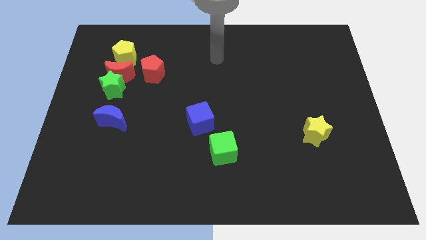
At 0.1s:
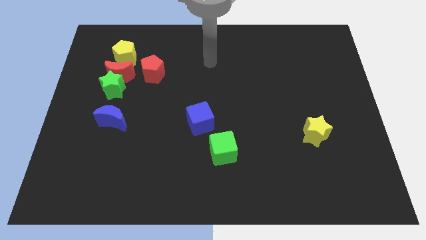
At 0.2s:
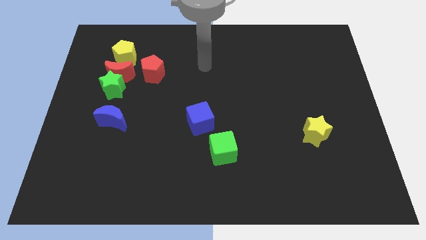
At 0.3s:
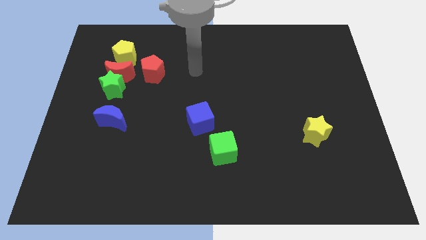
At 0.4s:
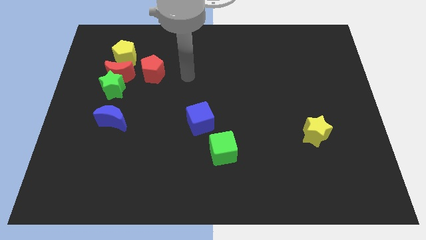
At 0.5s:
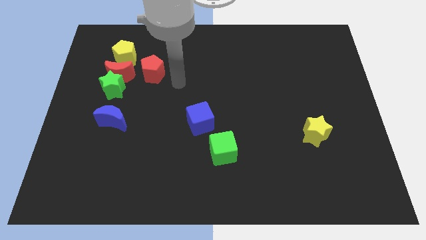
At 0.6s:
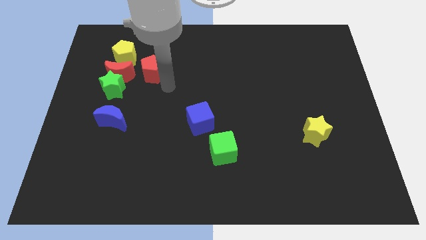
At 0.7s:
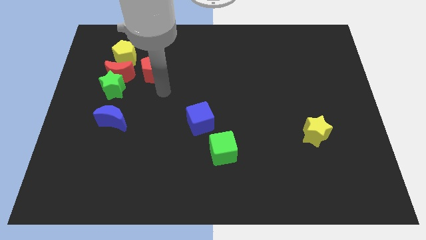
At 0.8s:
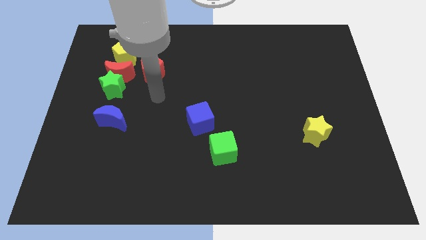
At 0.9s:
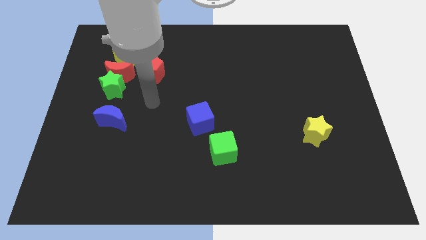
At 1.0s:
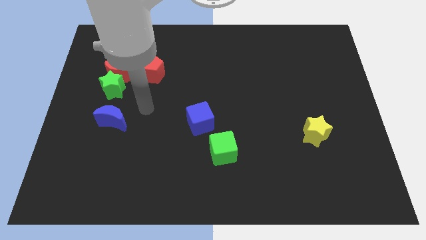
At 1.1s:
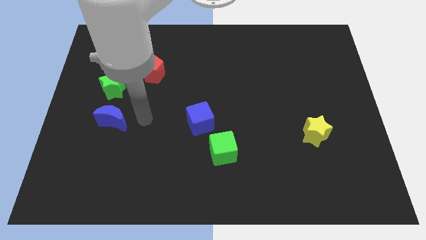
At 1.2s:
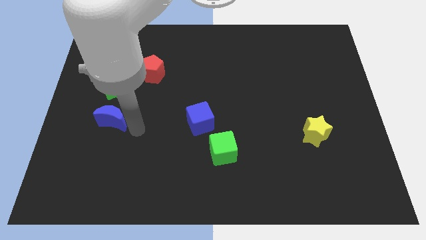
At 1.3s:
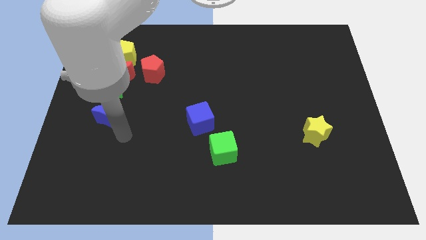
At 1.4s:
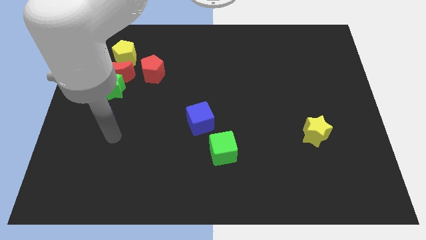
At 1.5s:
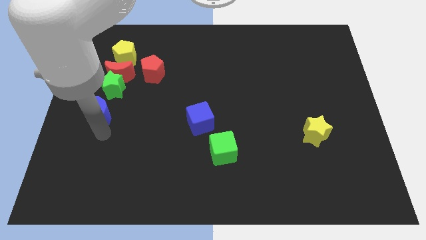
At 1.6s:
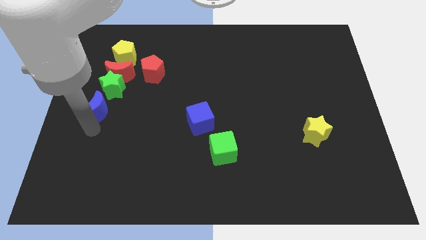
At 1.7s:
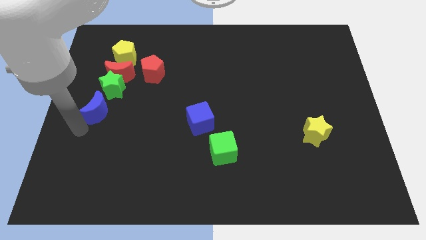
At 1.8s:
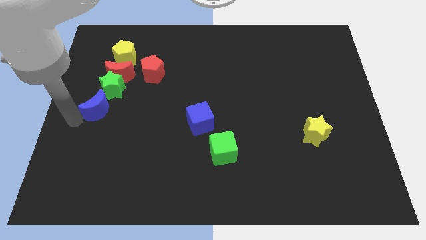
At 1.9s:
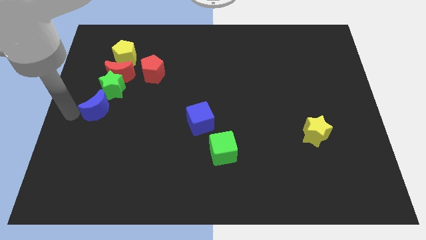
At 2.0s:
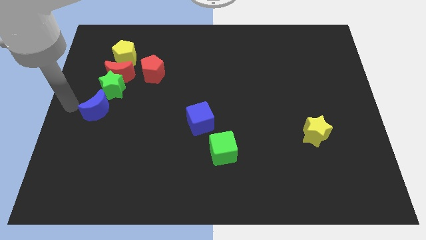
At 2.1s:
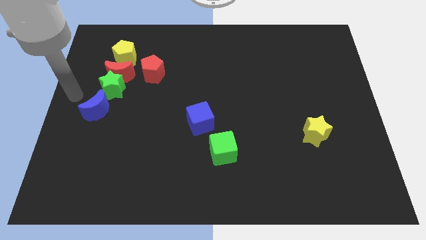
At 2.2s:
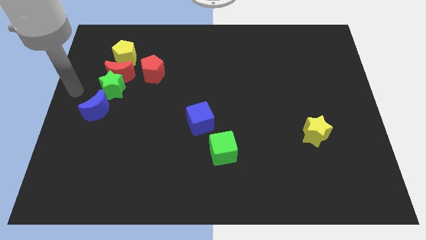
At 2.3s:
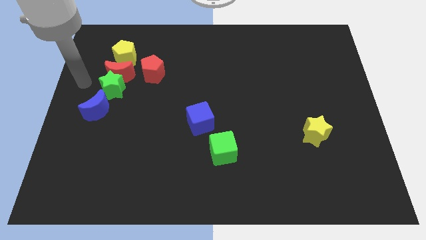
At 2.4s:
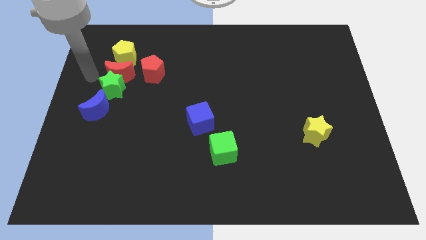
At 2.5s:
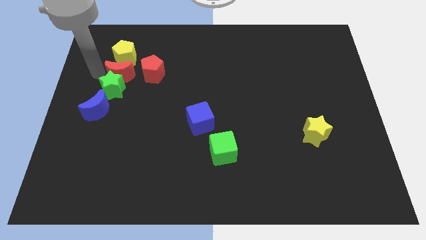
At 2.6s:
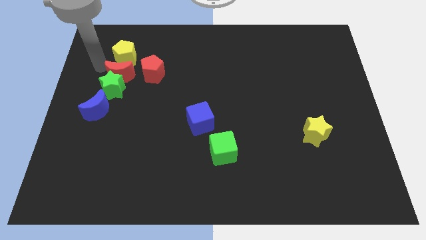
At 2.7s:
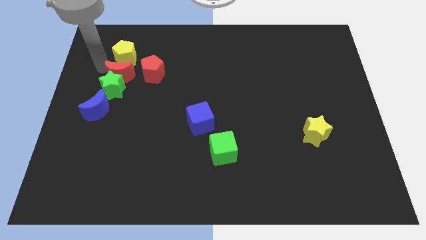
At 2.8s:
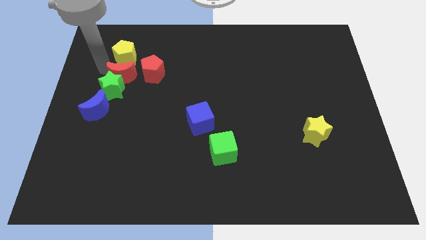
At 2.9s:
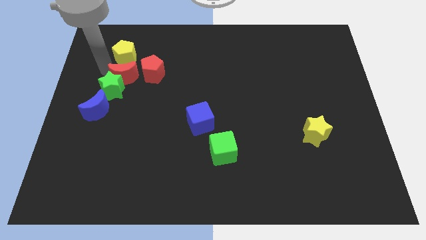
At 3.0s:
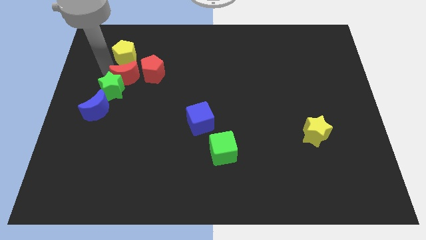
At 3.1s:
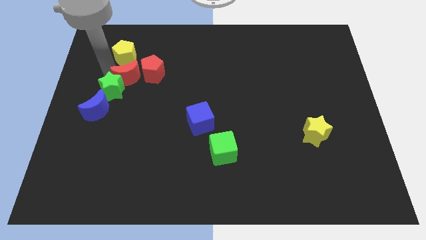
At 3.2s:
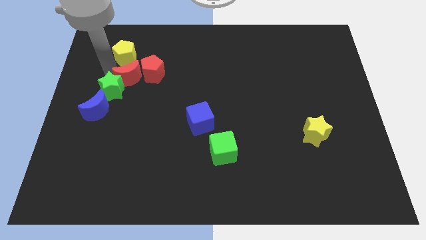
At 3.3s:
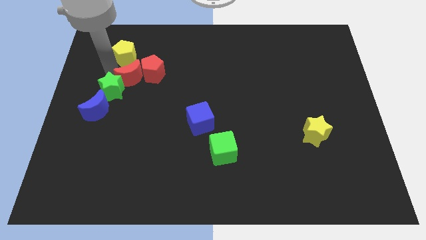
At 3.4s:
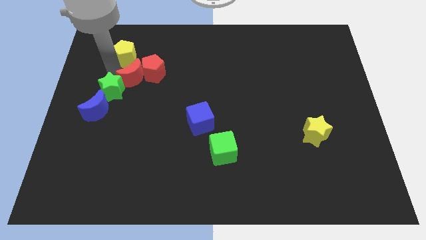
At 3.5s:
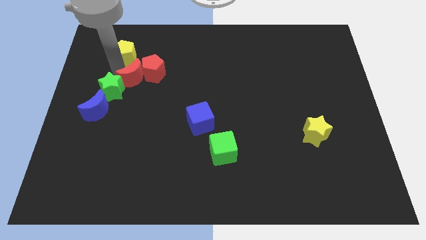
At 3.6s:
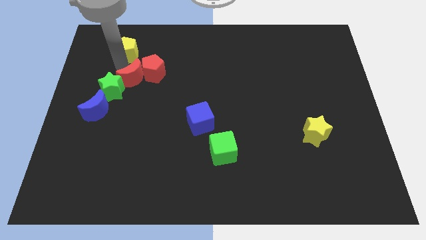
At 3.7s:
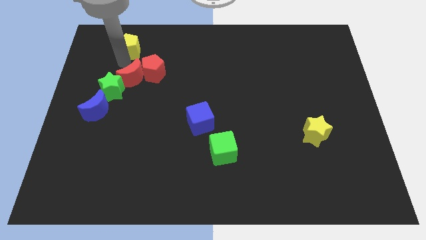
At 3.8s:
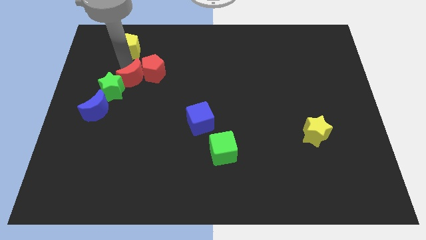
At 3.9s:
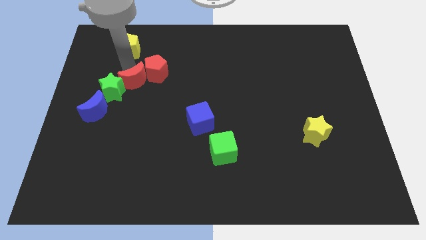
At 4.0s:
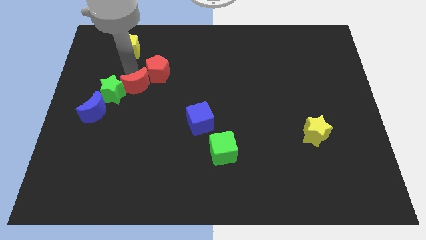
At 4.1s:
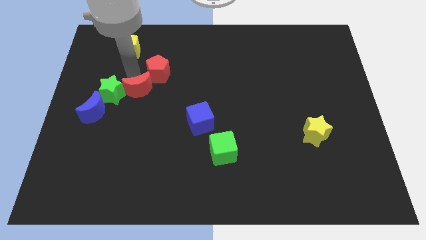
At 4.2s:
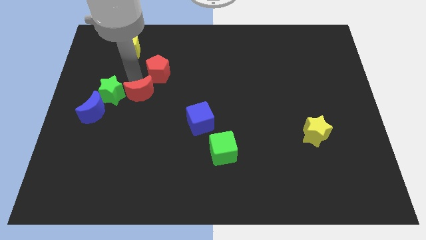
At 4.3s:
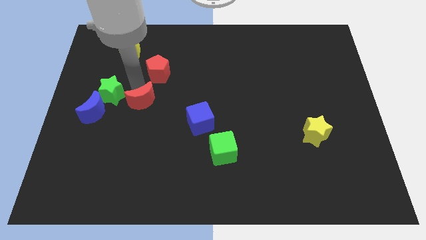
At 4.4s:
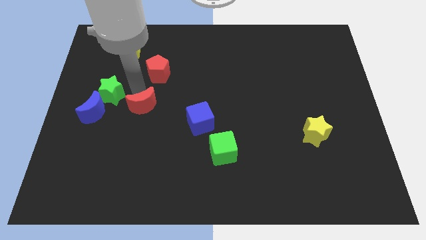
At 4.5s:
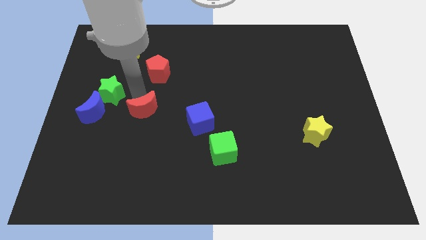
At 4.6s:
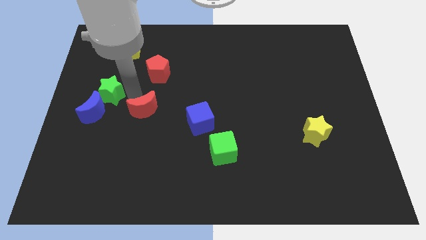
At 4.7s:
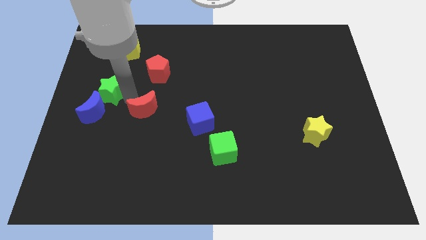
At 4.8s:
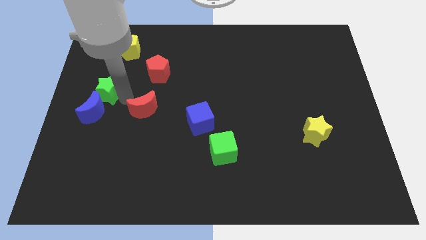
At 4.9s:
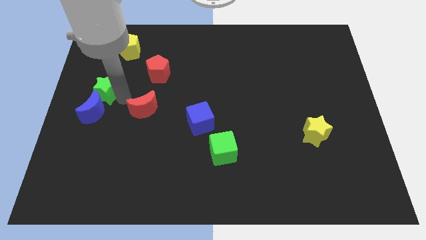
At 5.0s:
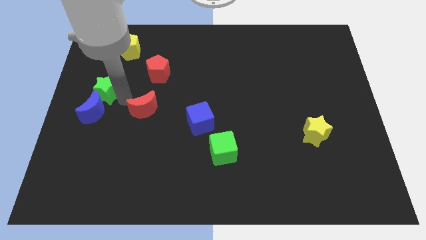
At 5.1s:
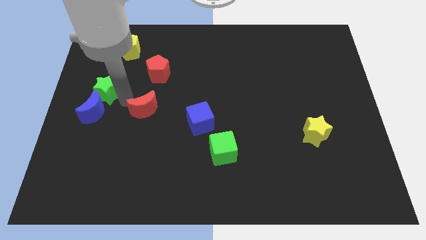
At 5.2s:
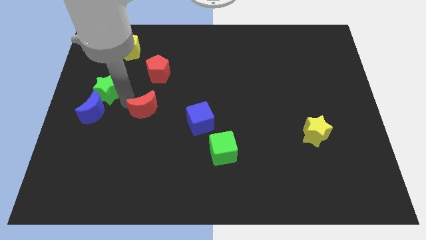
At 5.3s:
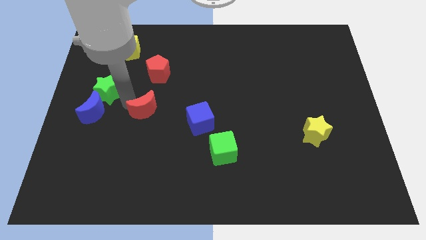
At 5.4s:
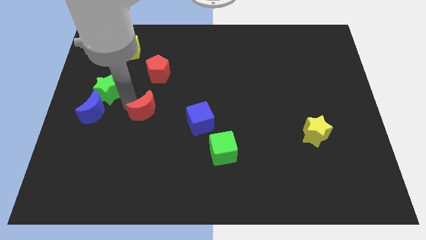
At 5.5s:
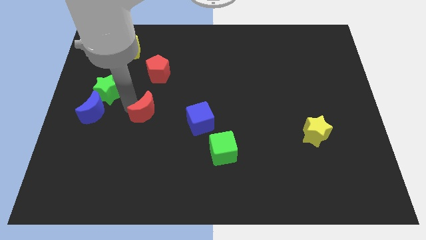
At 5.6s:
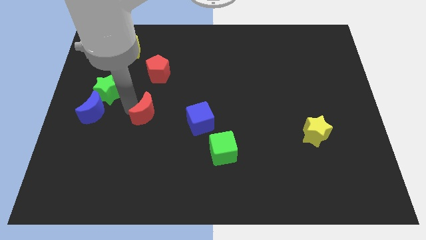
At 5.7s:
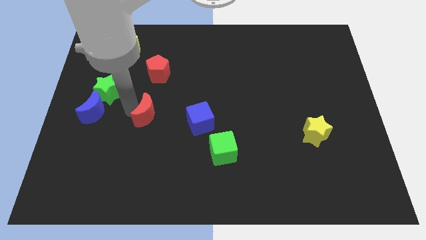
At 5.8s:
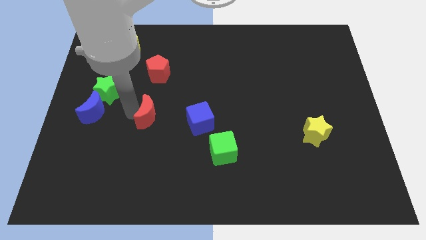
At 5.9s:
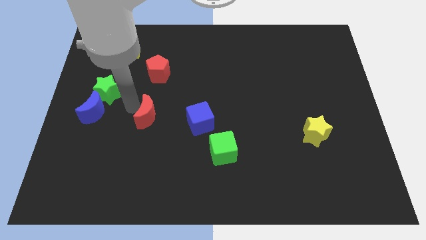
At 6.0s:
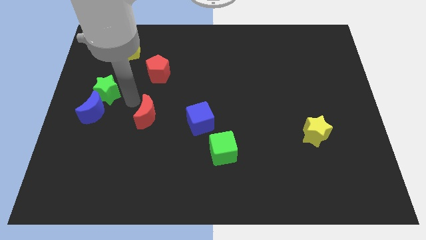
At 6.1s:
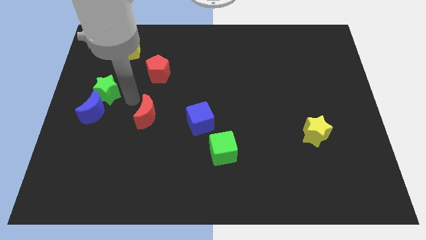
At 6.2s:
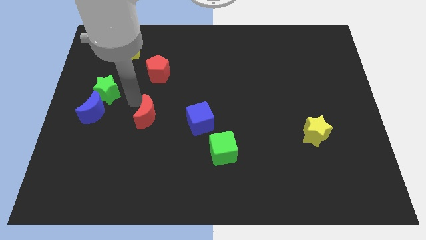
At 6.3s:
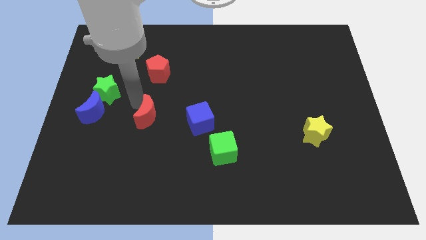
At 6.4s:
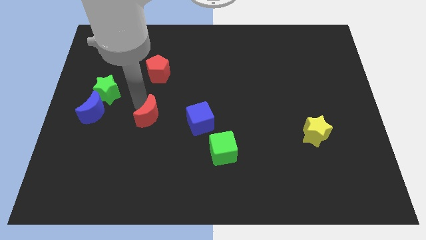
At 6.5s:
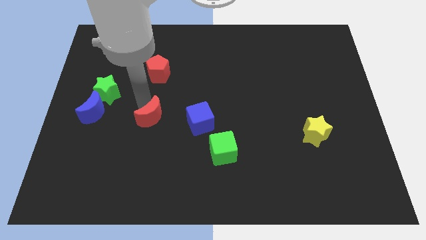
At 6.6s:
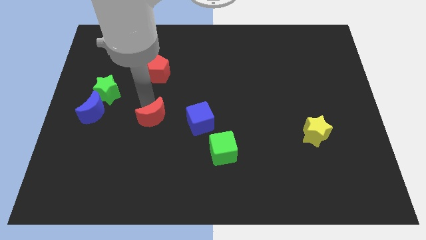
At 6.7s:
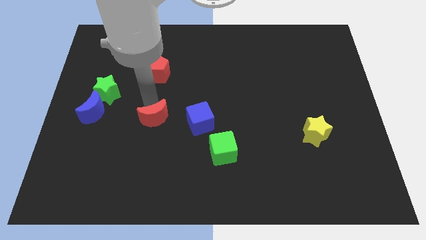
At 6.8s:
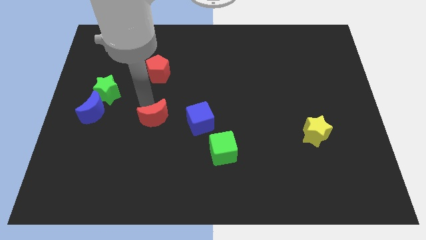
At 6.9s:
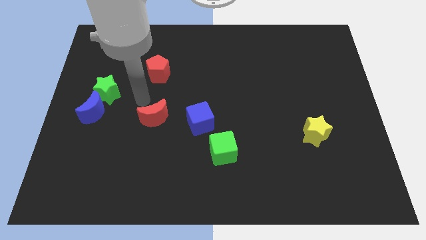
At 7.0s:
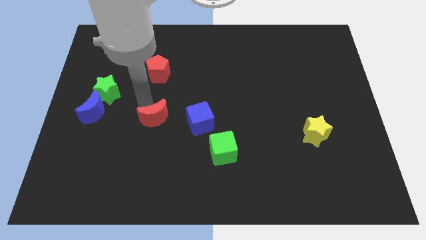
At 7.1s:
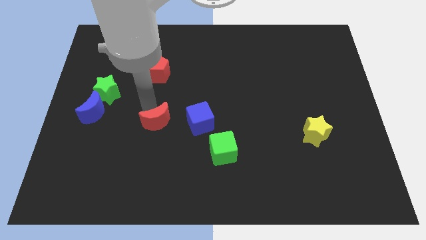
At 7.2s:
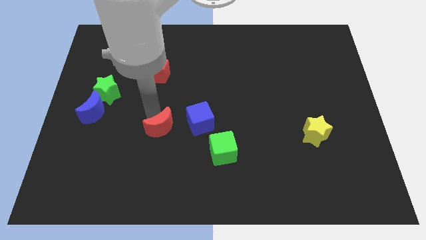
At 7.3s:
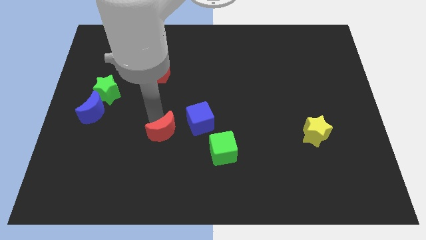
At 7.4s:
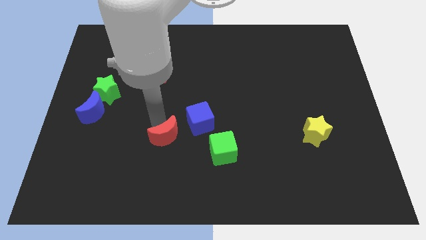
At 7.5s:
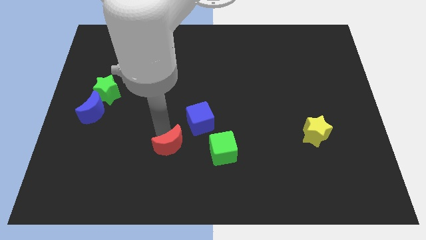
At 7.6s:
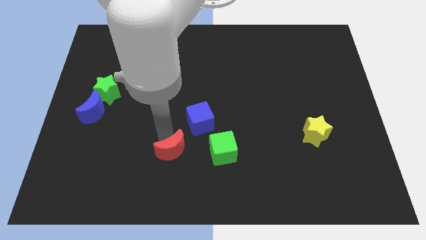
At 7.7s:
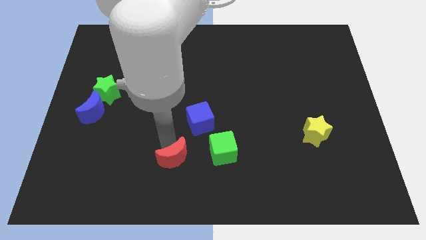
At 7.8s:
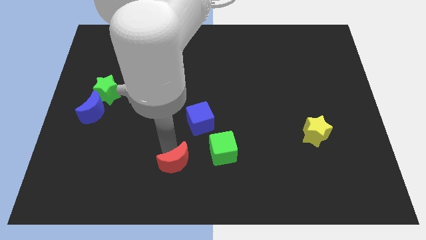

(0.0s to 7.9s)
put the red moon to the bottom side
